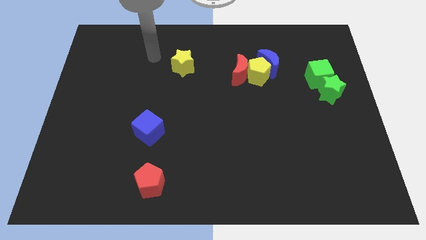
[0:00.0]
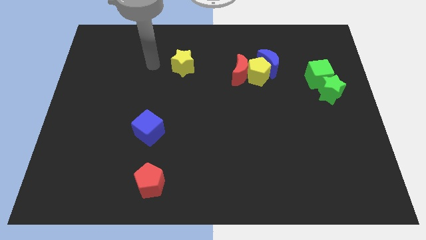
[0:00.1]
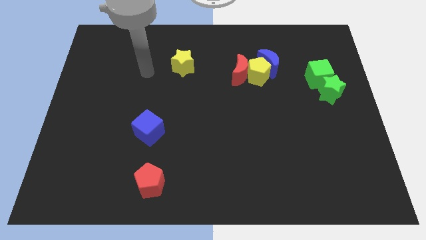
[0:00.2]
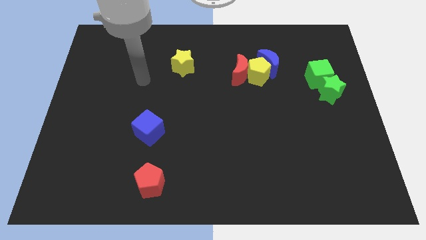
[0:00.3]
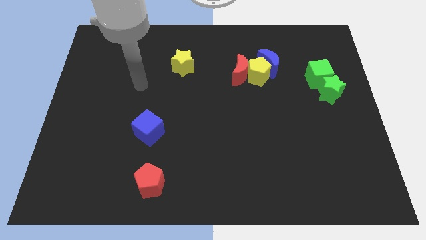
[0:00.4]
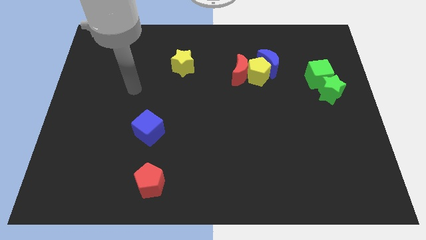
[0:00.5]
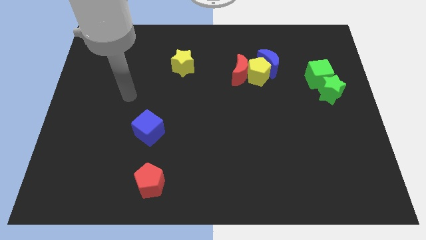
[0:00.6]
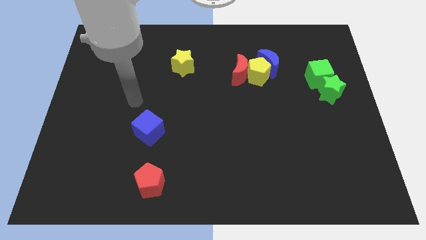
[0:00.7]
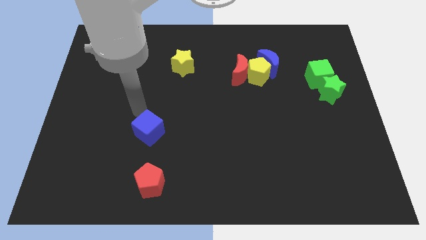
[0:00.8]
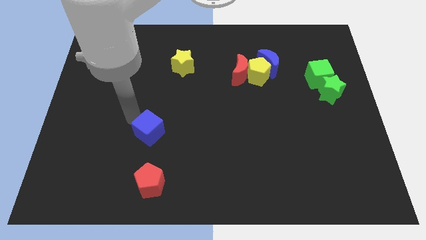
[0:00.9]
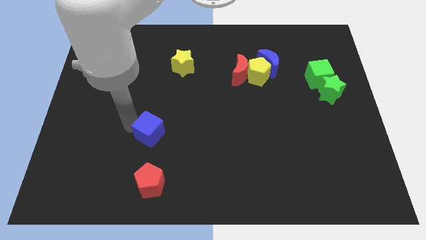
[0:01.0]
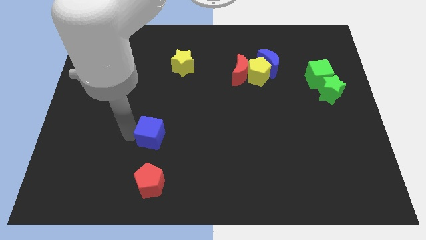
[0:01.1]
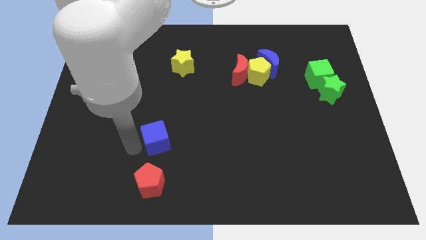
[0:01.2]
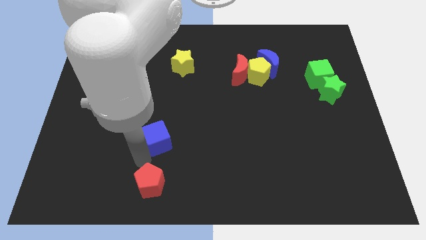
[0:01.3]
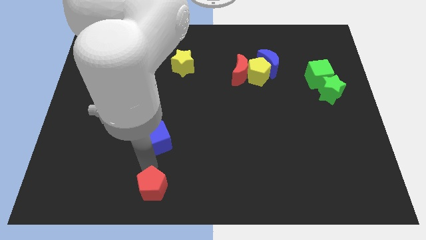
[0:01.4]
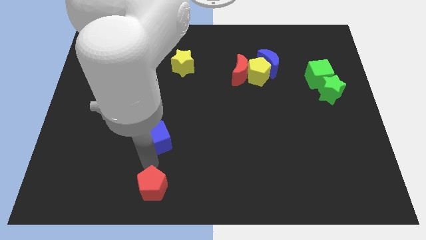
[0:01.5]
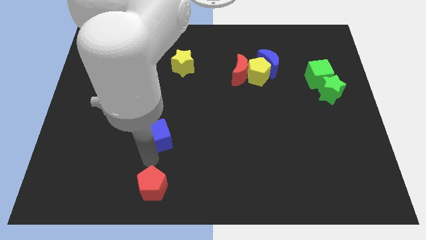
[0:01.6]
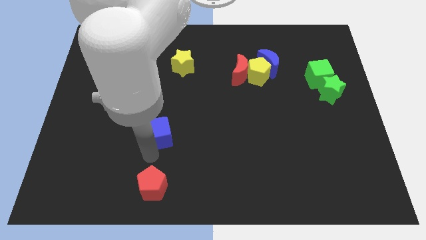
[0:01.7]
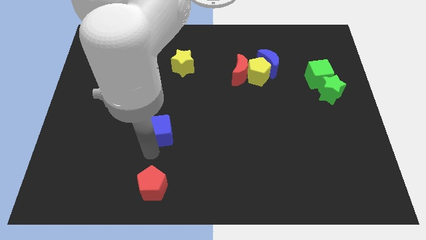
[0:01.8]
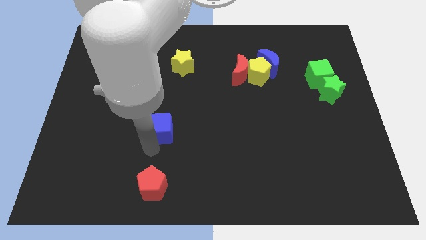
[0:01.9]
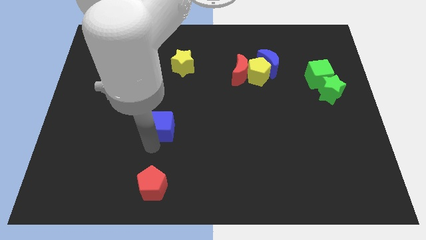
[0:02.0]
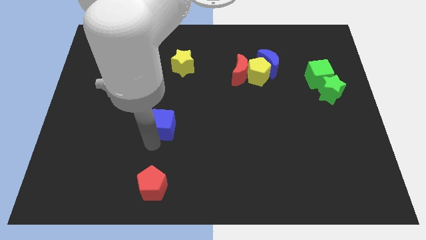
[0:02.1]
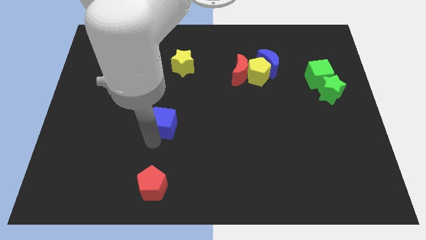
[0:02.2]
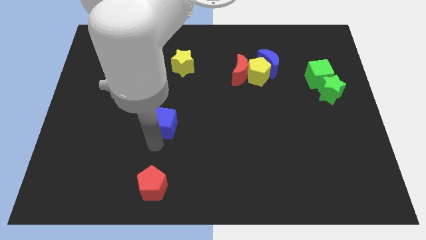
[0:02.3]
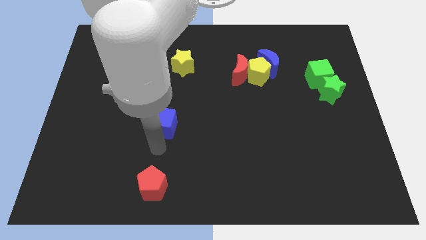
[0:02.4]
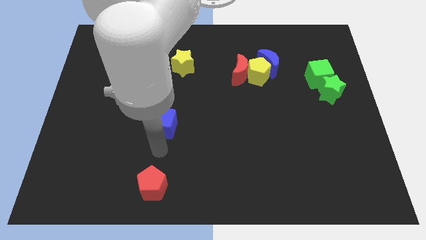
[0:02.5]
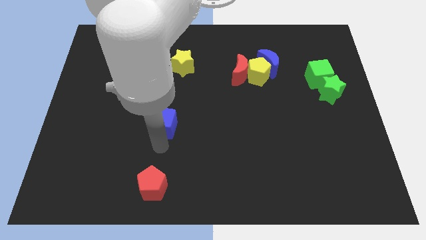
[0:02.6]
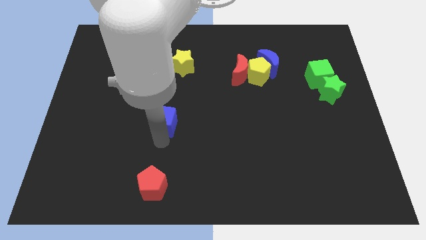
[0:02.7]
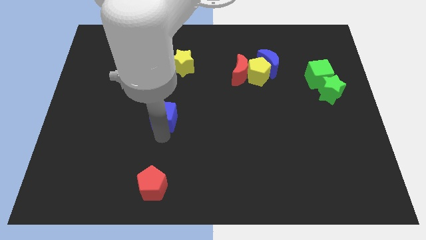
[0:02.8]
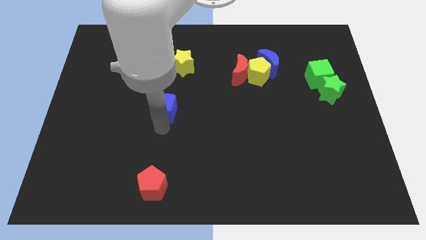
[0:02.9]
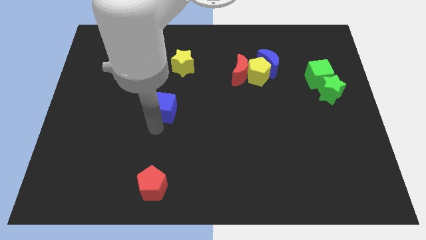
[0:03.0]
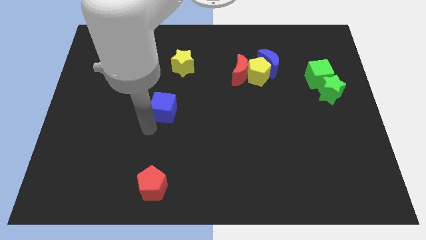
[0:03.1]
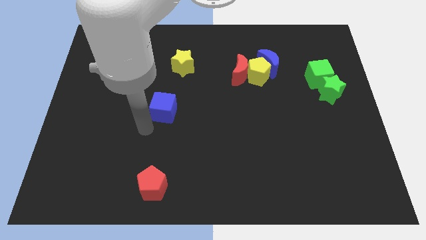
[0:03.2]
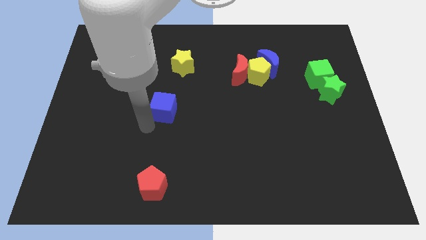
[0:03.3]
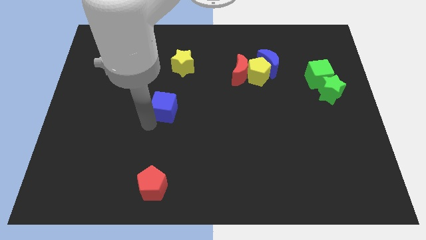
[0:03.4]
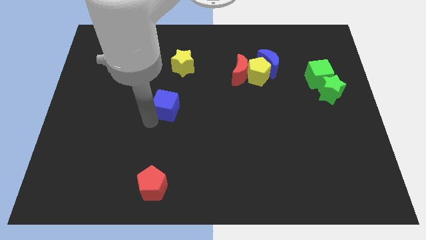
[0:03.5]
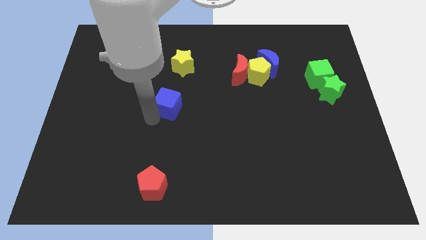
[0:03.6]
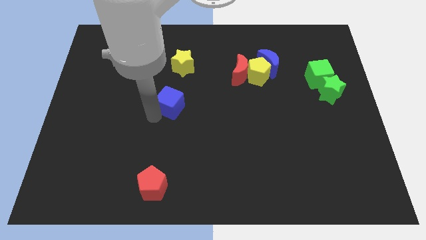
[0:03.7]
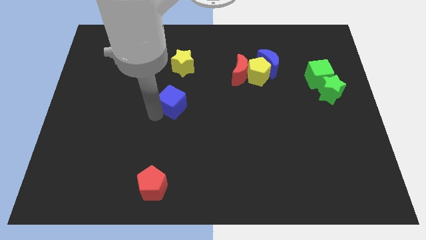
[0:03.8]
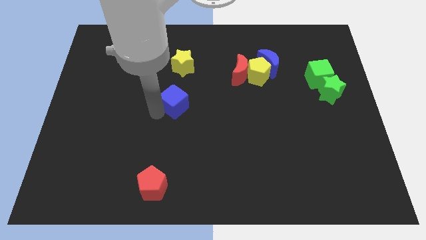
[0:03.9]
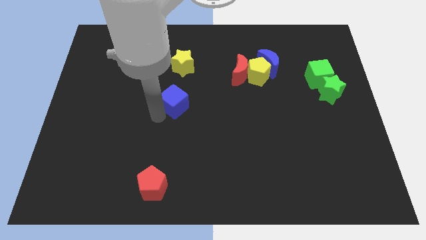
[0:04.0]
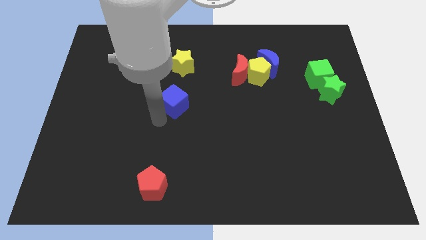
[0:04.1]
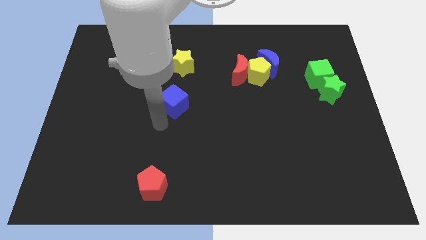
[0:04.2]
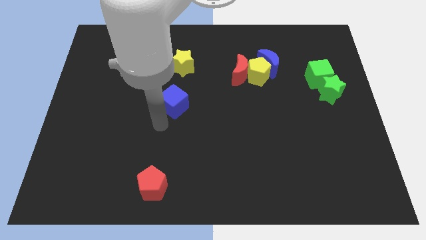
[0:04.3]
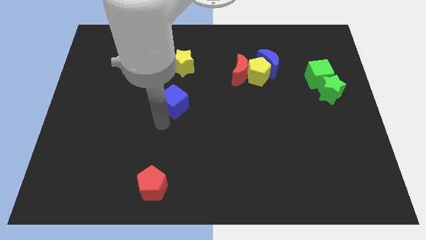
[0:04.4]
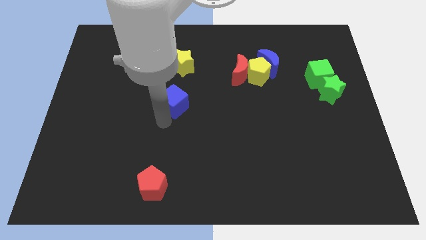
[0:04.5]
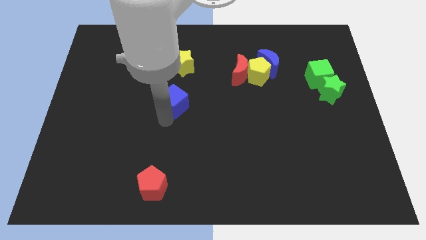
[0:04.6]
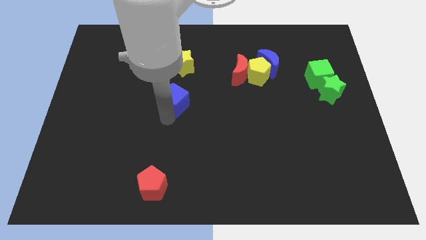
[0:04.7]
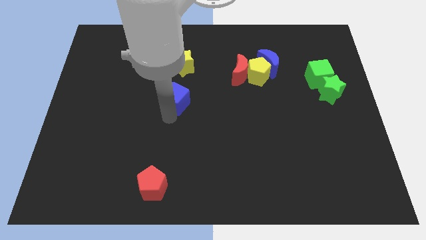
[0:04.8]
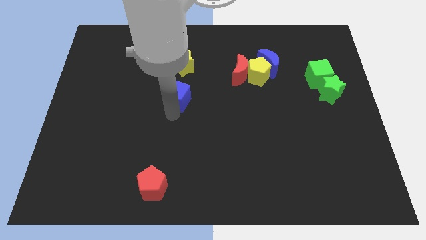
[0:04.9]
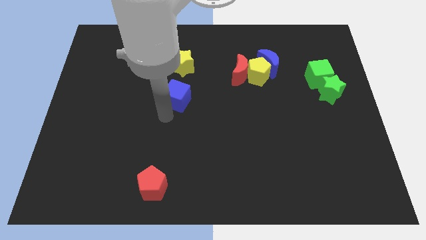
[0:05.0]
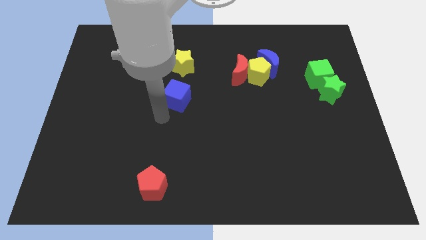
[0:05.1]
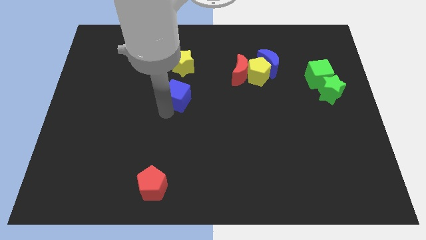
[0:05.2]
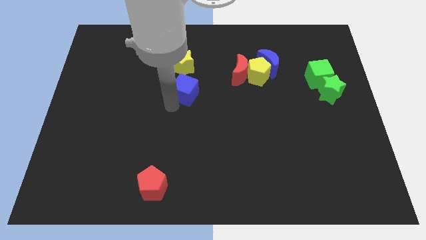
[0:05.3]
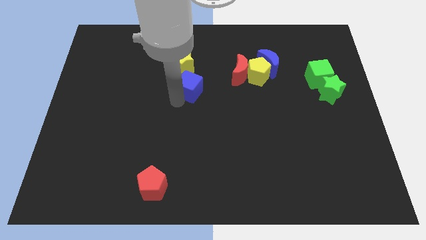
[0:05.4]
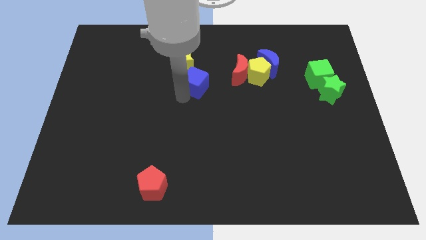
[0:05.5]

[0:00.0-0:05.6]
move the blue cube to the left side of the red moon

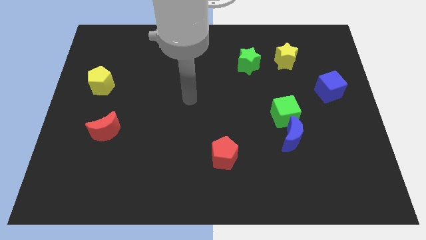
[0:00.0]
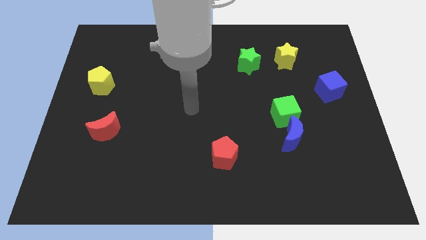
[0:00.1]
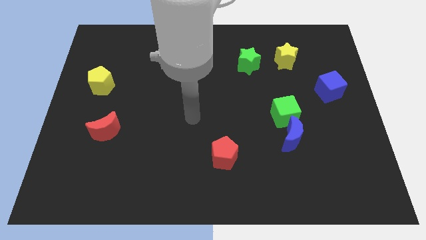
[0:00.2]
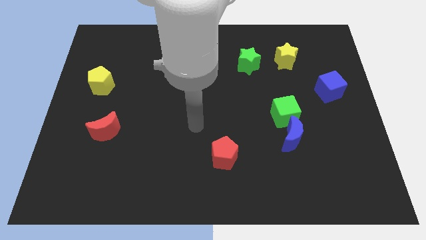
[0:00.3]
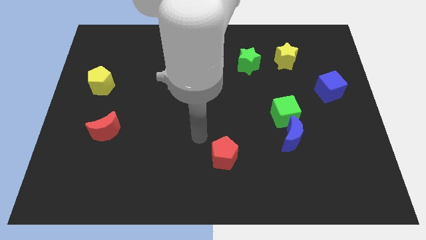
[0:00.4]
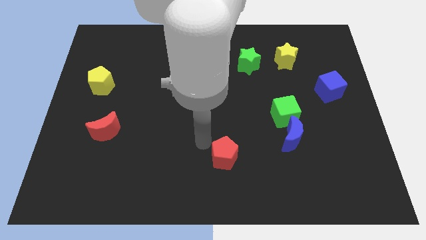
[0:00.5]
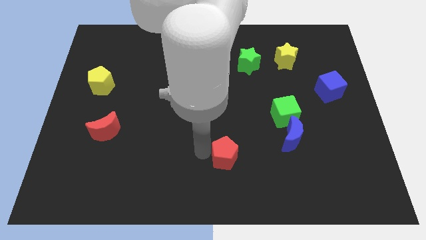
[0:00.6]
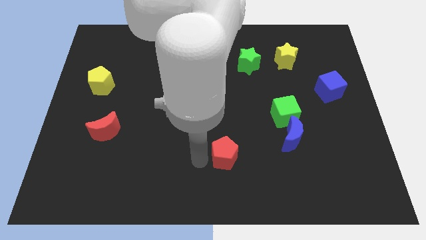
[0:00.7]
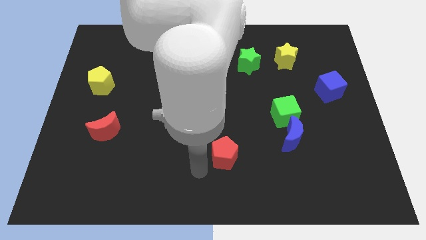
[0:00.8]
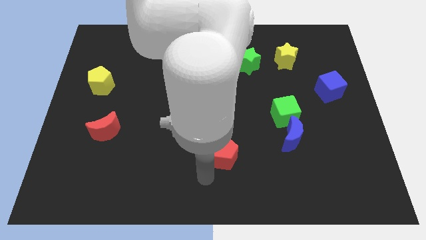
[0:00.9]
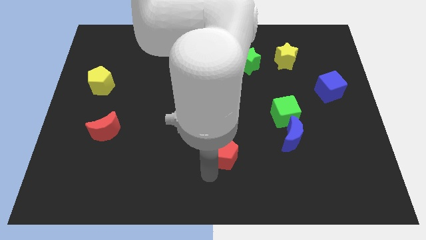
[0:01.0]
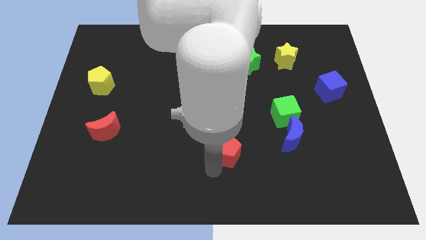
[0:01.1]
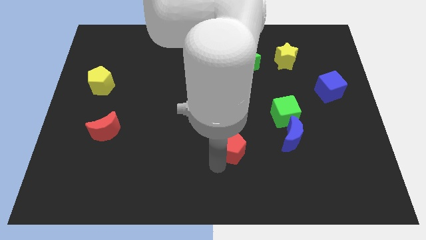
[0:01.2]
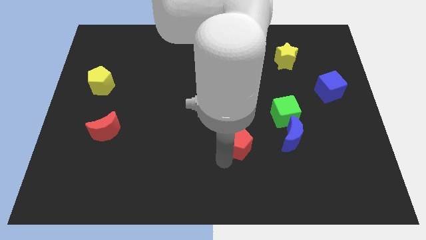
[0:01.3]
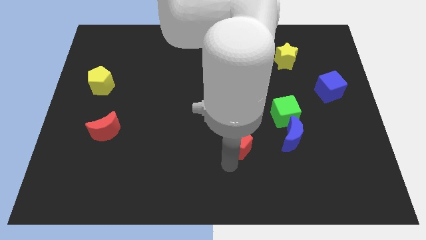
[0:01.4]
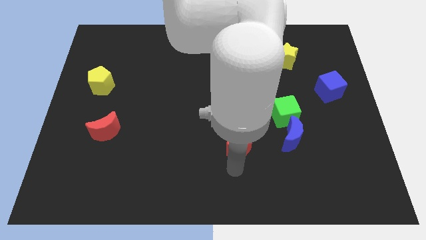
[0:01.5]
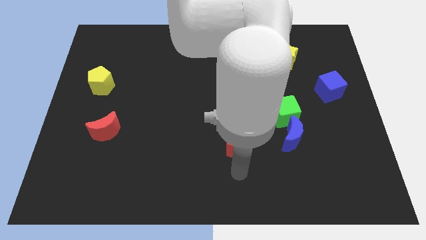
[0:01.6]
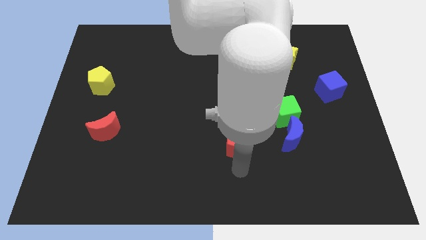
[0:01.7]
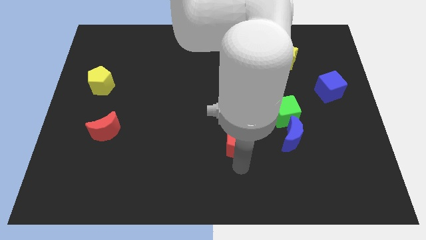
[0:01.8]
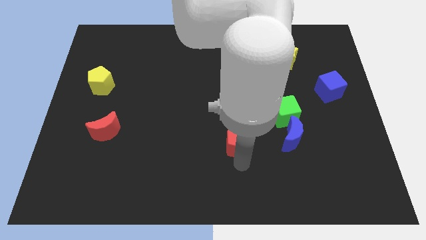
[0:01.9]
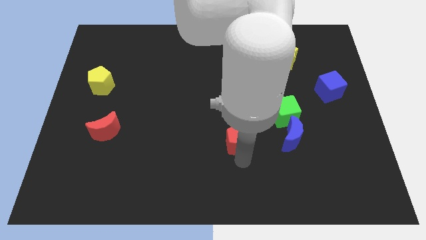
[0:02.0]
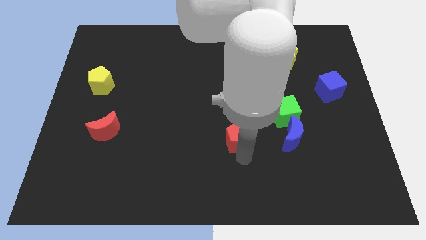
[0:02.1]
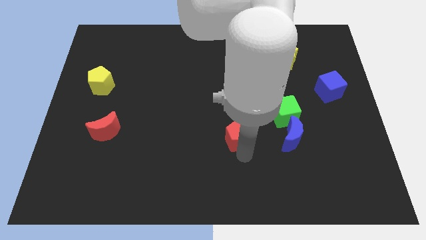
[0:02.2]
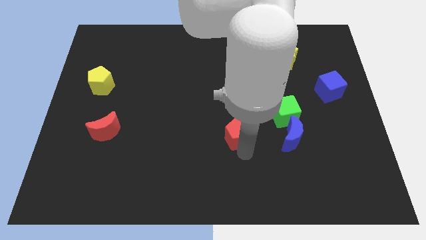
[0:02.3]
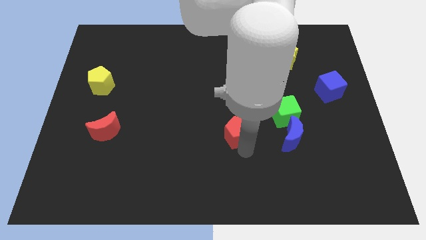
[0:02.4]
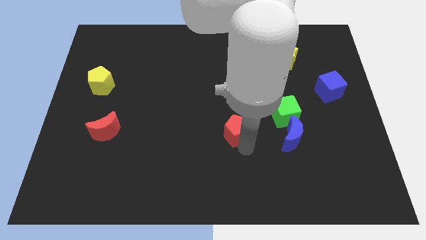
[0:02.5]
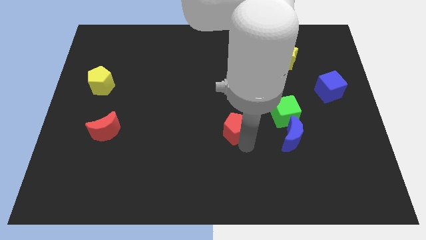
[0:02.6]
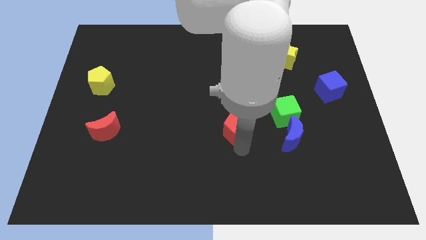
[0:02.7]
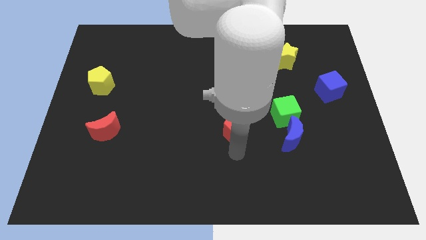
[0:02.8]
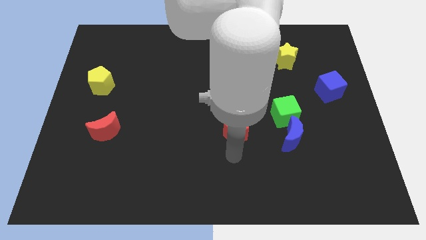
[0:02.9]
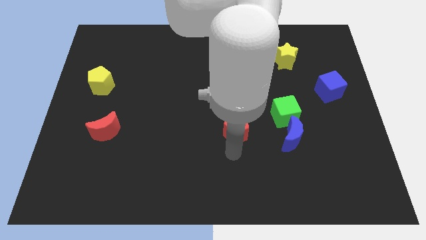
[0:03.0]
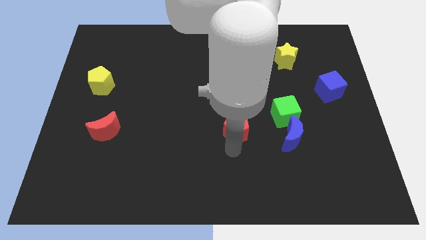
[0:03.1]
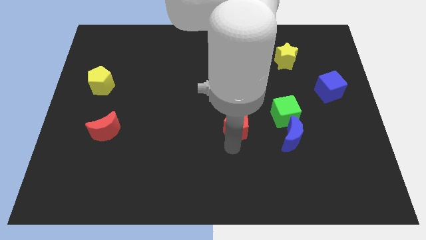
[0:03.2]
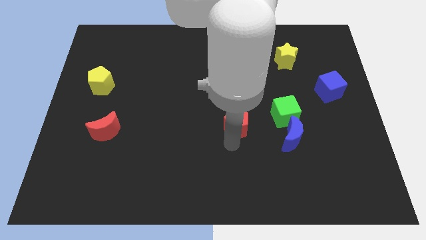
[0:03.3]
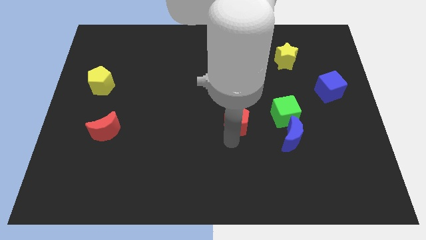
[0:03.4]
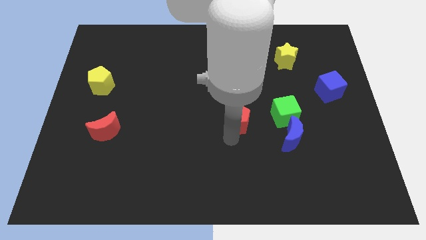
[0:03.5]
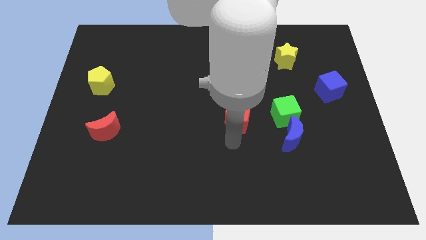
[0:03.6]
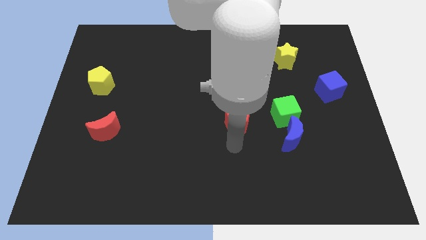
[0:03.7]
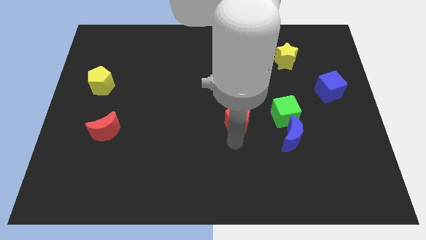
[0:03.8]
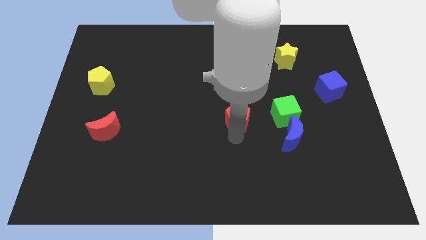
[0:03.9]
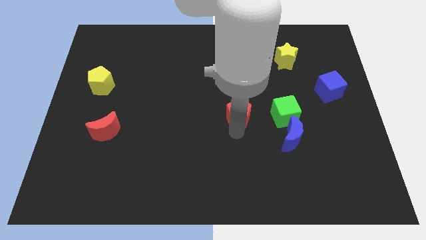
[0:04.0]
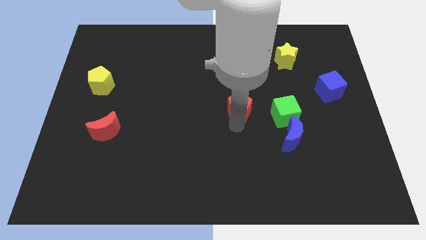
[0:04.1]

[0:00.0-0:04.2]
push the red pentagon below the green star
